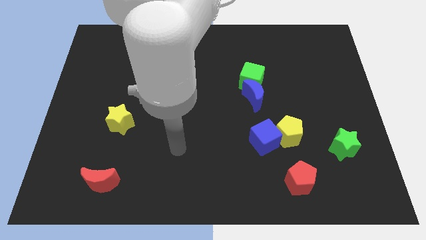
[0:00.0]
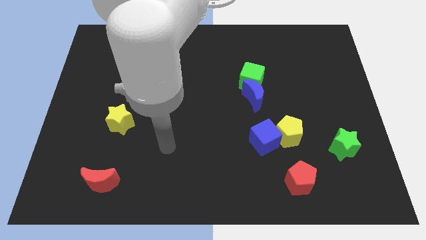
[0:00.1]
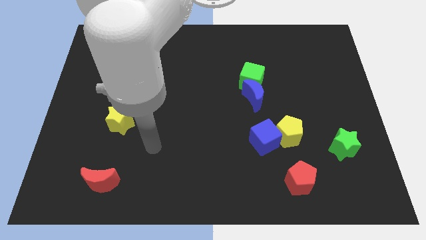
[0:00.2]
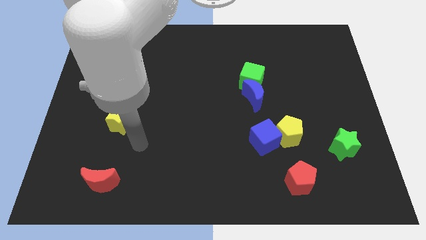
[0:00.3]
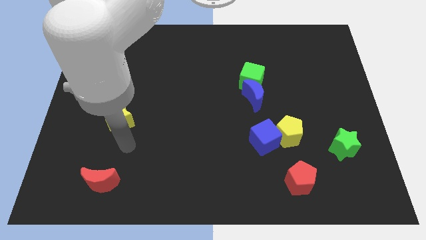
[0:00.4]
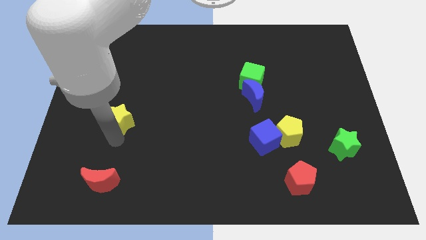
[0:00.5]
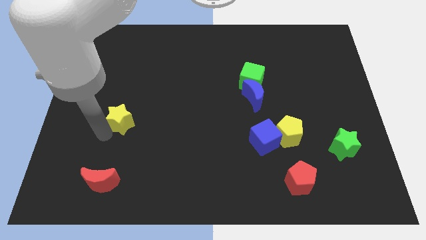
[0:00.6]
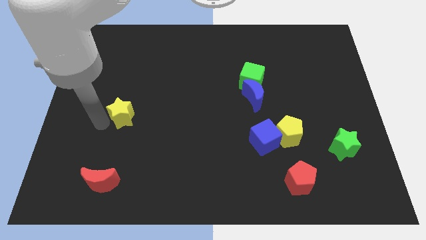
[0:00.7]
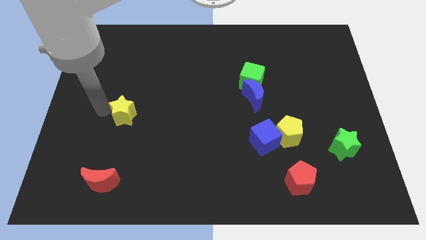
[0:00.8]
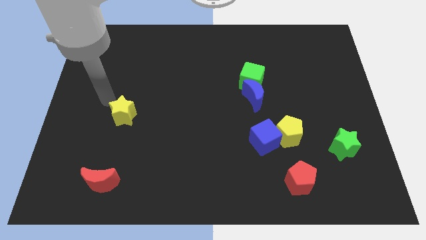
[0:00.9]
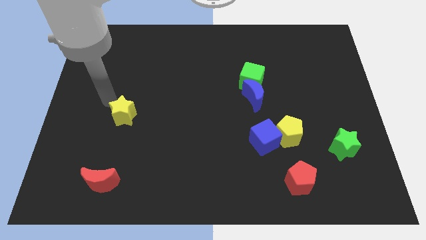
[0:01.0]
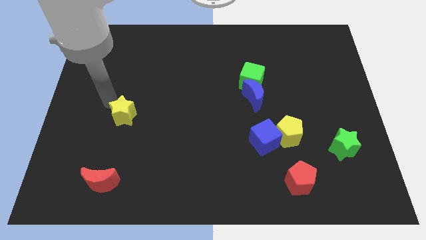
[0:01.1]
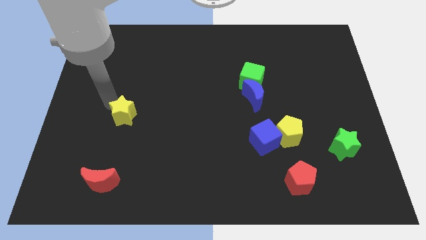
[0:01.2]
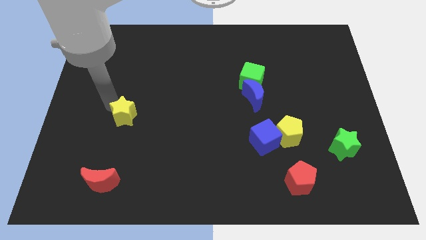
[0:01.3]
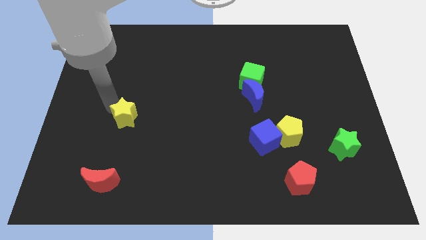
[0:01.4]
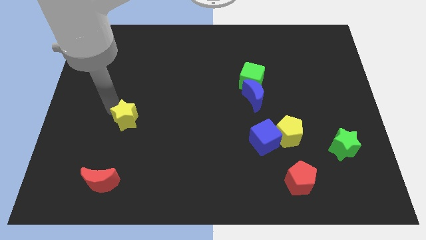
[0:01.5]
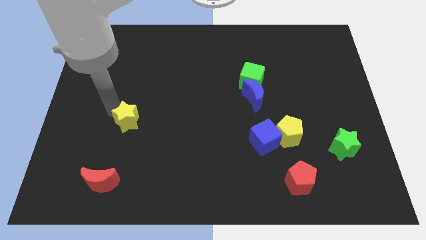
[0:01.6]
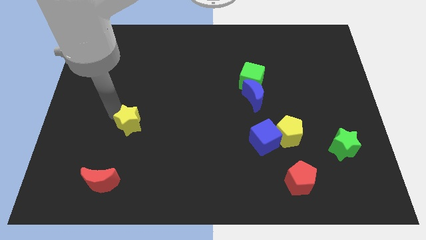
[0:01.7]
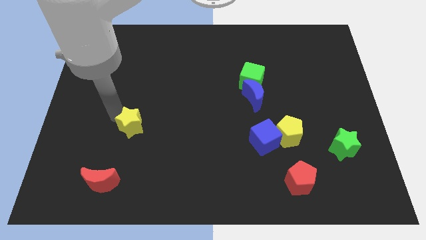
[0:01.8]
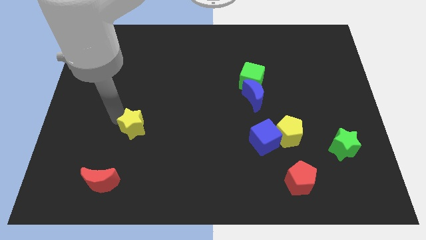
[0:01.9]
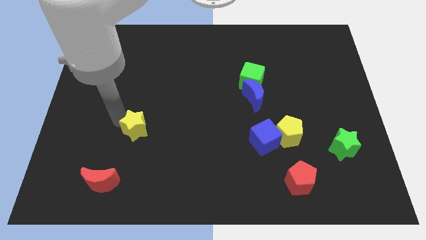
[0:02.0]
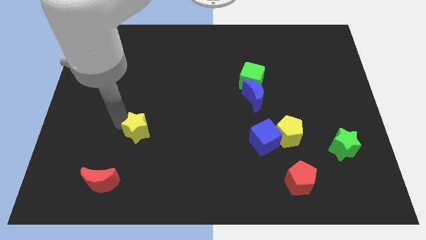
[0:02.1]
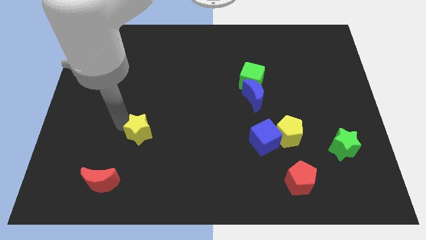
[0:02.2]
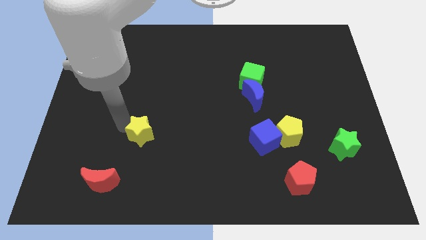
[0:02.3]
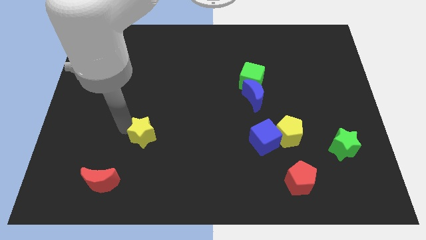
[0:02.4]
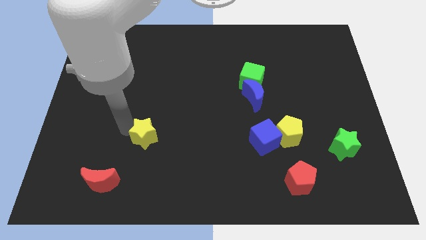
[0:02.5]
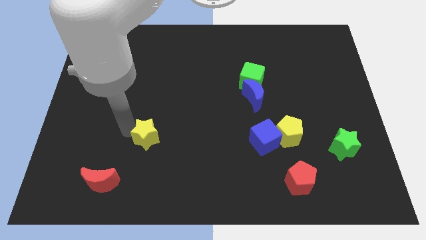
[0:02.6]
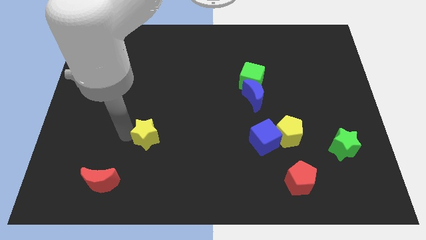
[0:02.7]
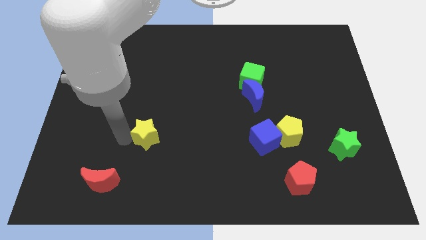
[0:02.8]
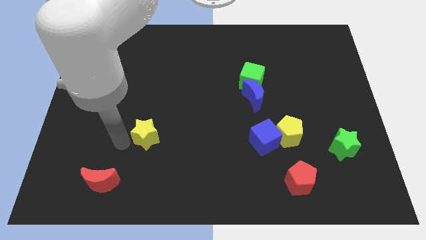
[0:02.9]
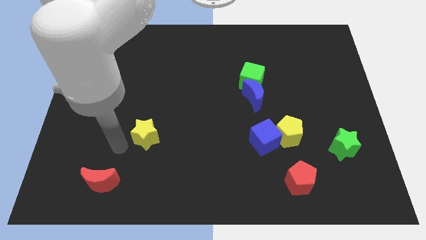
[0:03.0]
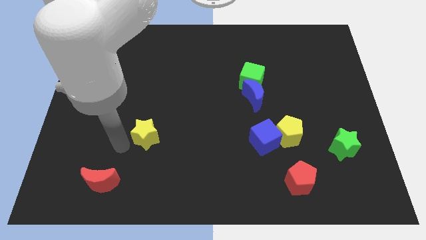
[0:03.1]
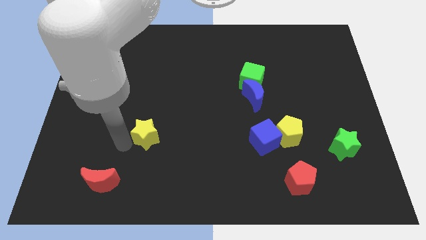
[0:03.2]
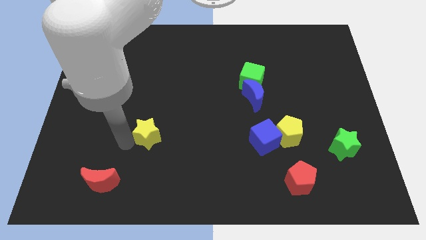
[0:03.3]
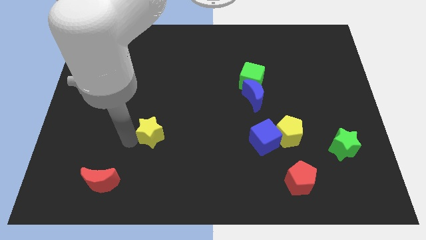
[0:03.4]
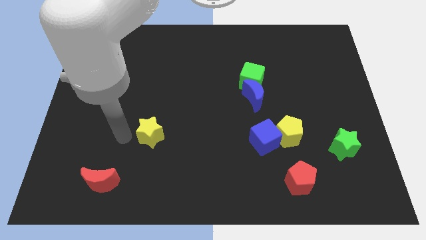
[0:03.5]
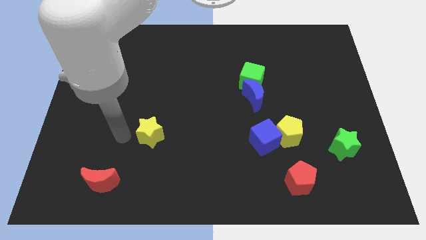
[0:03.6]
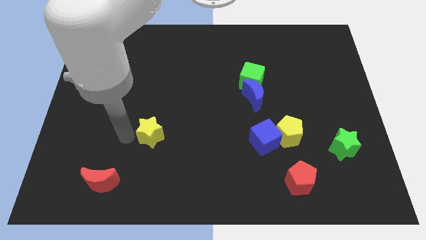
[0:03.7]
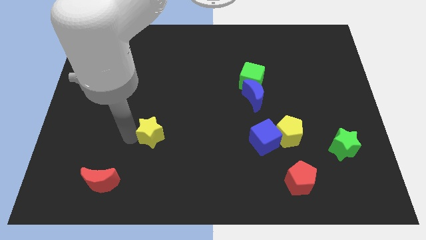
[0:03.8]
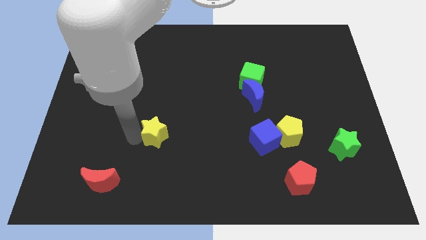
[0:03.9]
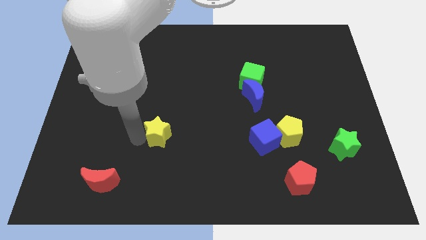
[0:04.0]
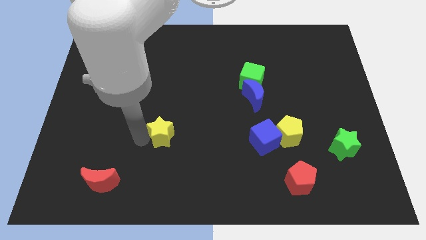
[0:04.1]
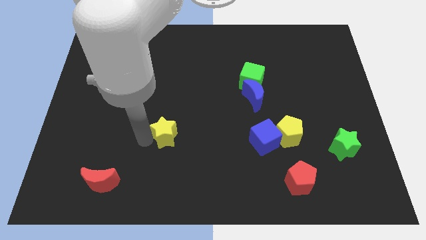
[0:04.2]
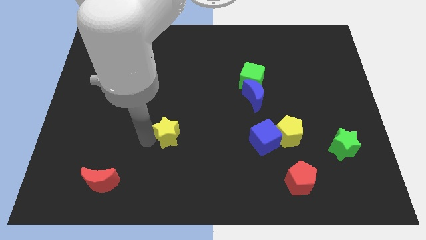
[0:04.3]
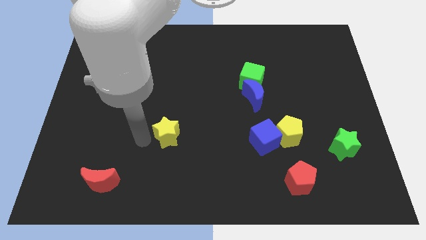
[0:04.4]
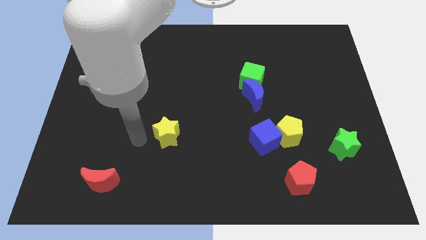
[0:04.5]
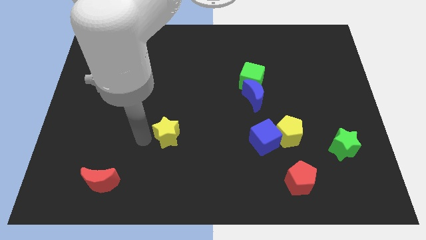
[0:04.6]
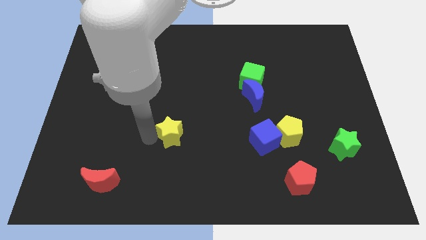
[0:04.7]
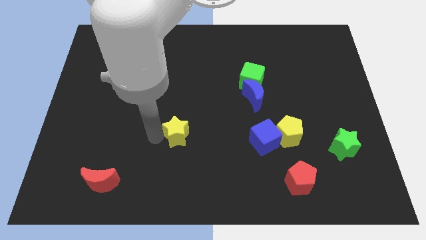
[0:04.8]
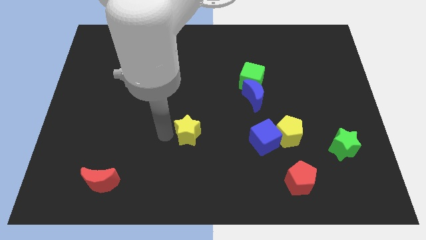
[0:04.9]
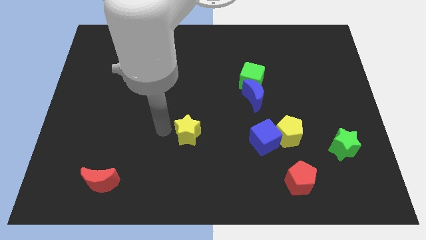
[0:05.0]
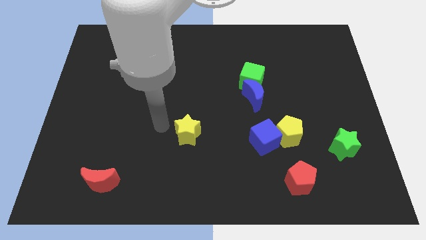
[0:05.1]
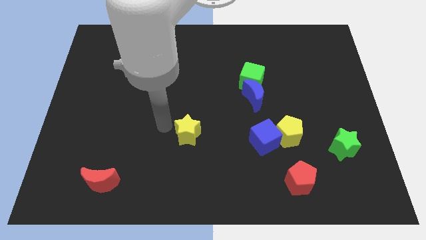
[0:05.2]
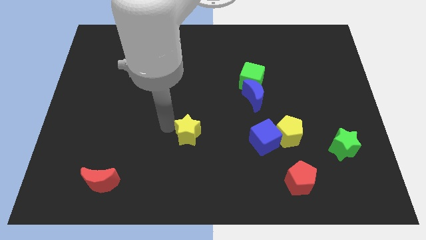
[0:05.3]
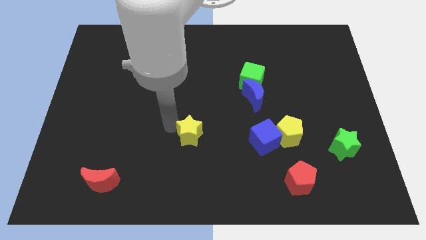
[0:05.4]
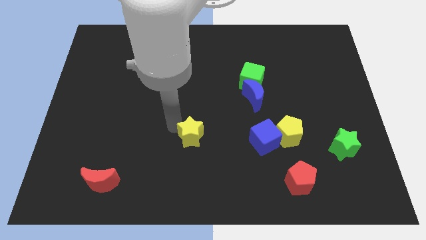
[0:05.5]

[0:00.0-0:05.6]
move the yellow star to the left of the blue cube

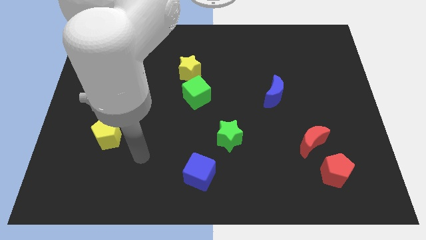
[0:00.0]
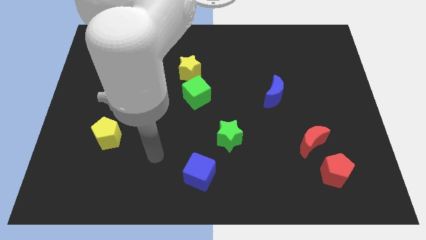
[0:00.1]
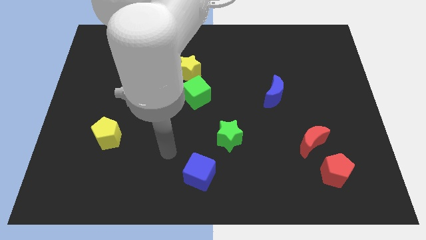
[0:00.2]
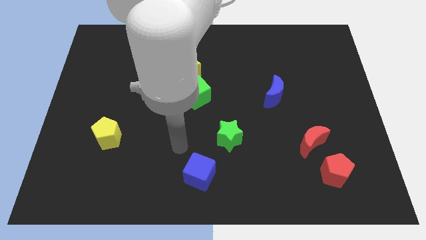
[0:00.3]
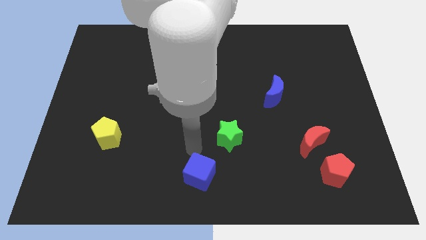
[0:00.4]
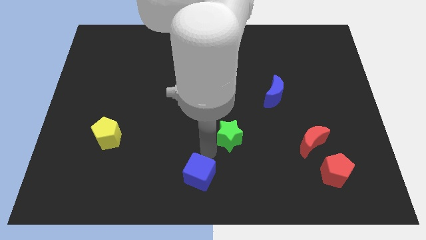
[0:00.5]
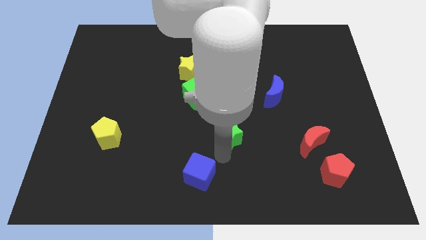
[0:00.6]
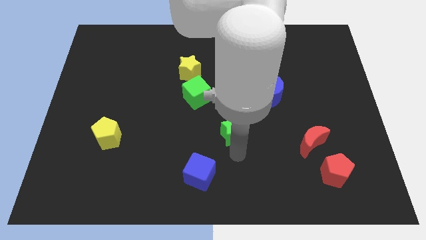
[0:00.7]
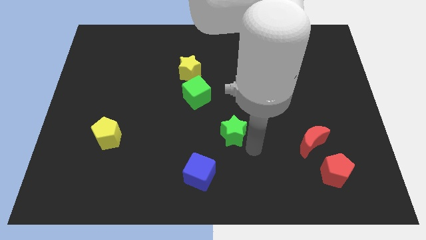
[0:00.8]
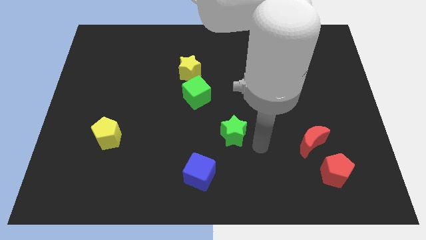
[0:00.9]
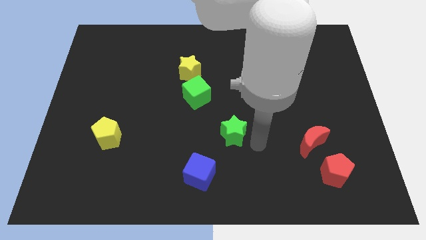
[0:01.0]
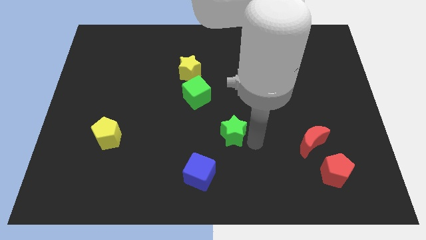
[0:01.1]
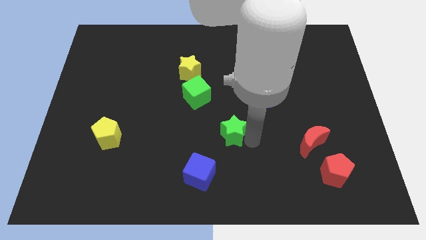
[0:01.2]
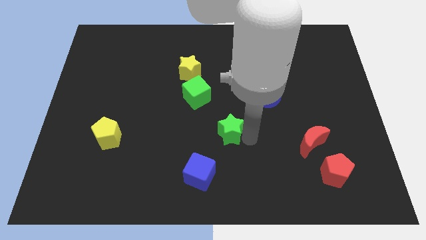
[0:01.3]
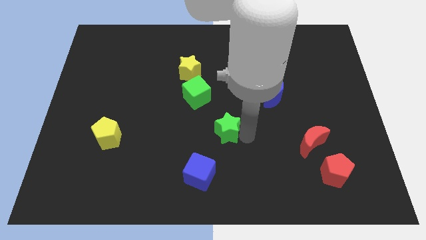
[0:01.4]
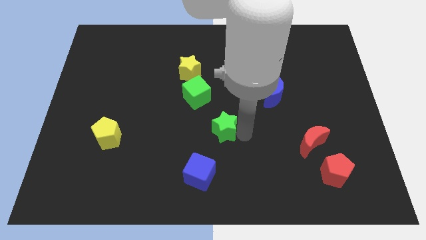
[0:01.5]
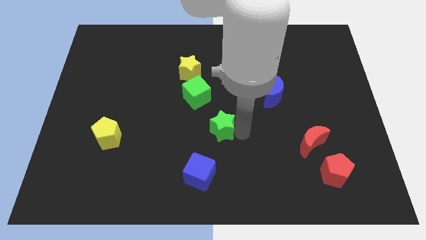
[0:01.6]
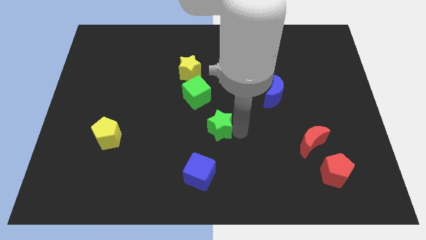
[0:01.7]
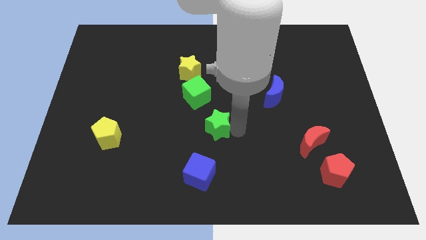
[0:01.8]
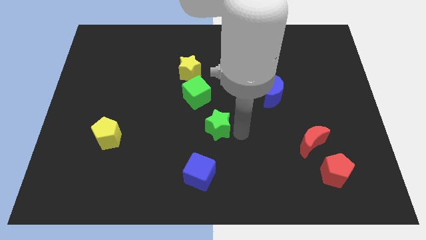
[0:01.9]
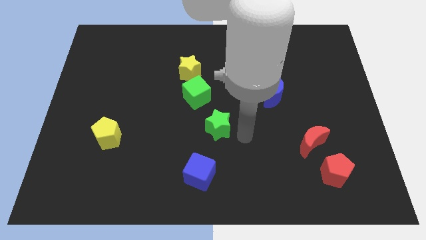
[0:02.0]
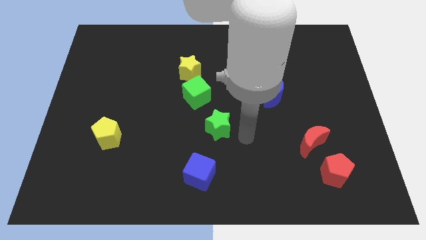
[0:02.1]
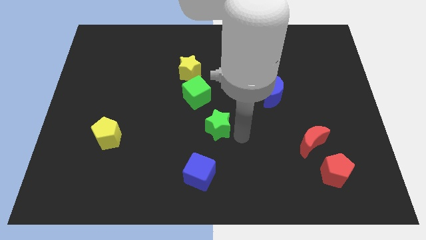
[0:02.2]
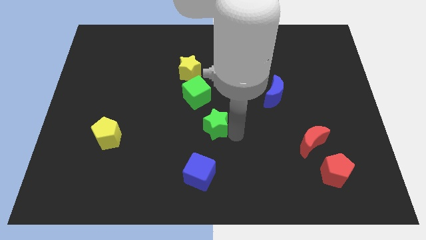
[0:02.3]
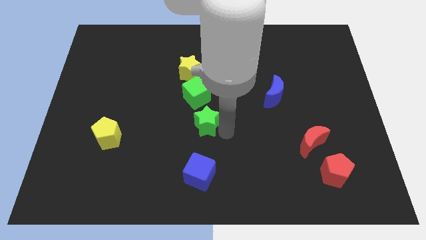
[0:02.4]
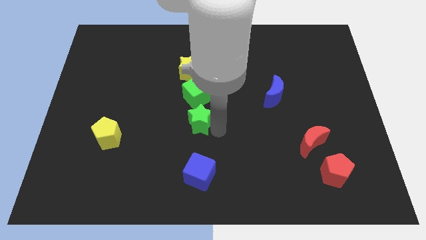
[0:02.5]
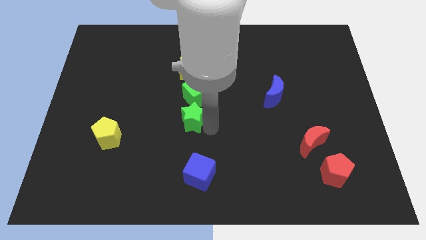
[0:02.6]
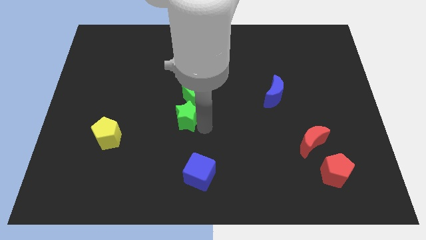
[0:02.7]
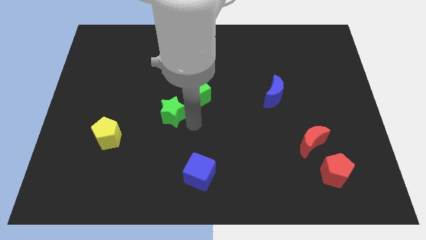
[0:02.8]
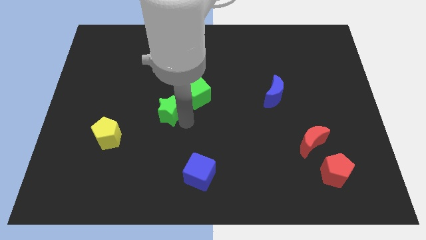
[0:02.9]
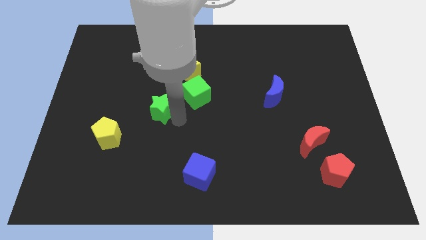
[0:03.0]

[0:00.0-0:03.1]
put the green star to the left side of the green cube
